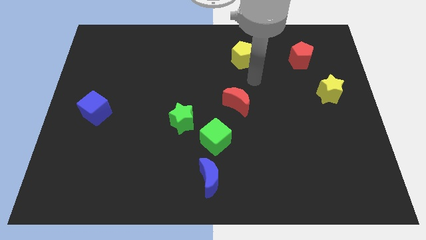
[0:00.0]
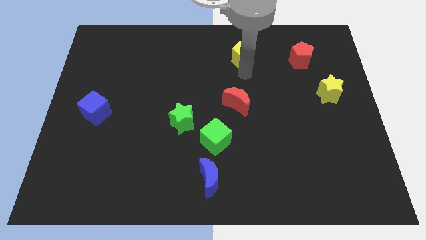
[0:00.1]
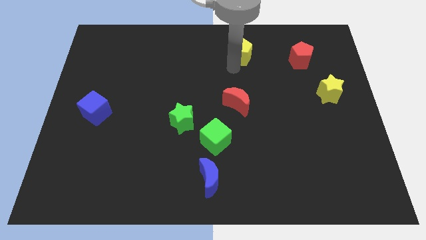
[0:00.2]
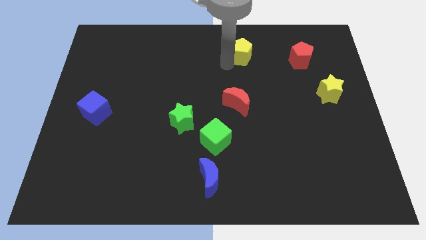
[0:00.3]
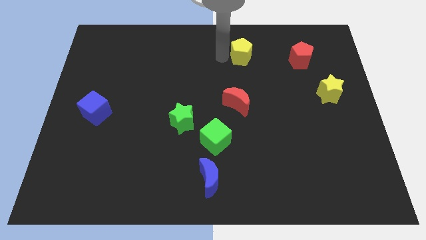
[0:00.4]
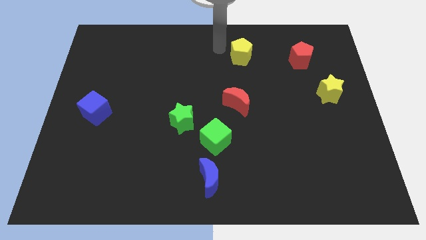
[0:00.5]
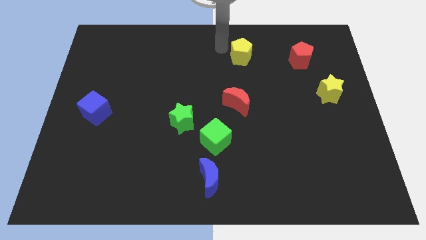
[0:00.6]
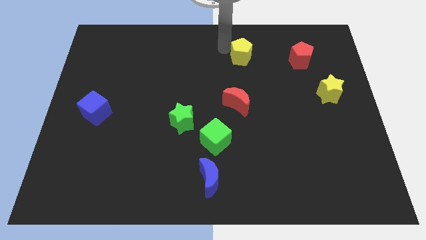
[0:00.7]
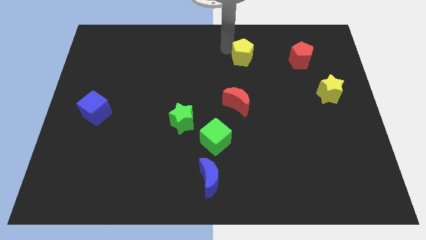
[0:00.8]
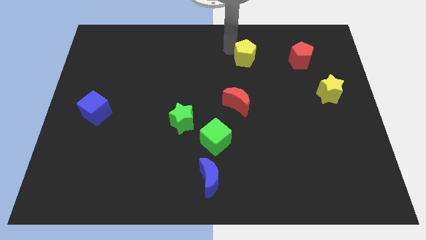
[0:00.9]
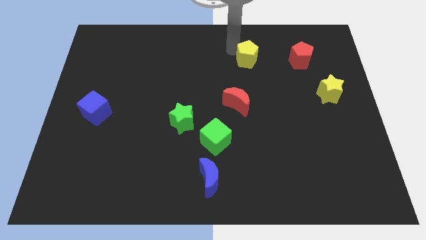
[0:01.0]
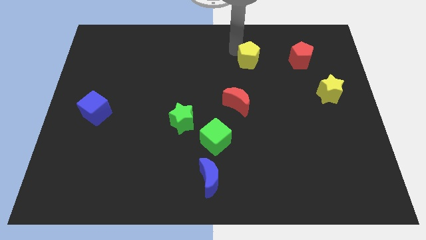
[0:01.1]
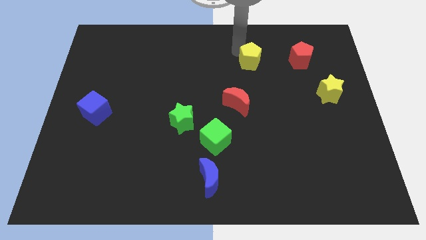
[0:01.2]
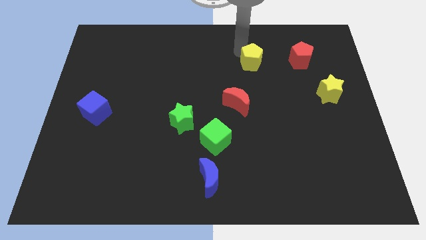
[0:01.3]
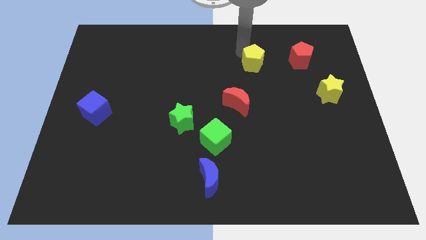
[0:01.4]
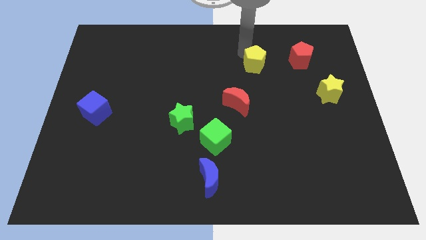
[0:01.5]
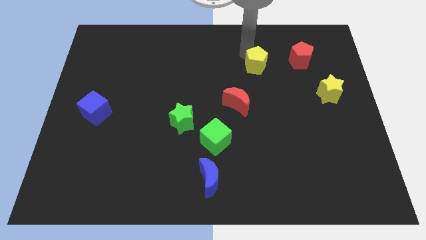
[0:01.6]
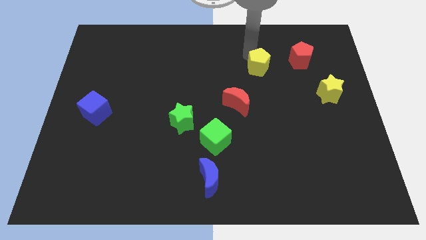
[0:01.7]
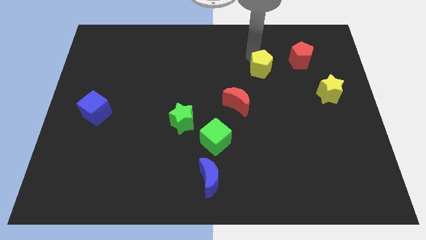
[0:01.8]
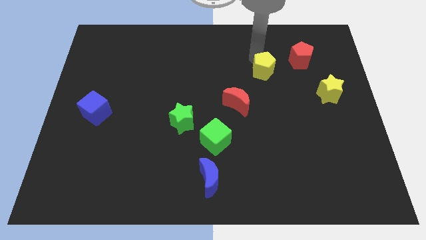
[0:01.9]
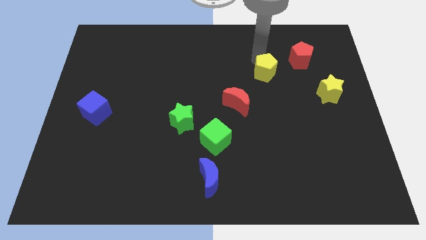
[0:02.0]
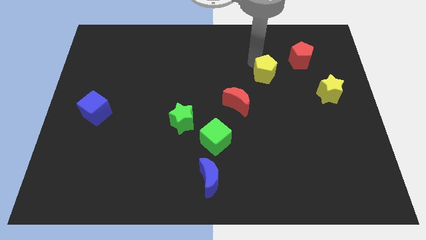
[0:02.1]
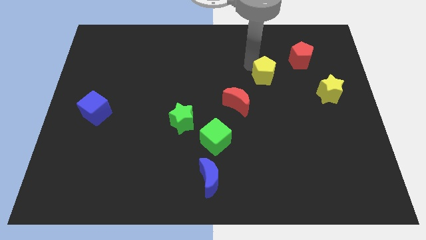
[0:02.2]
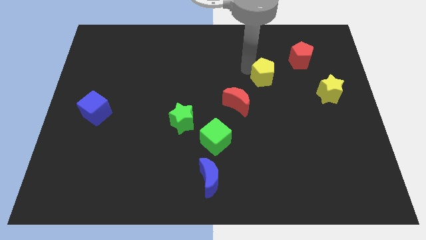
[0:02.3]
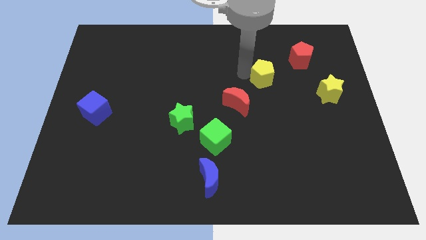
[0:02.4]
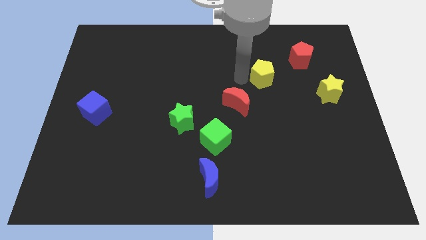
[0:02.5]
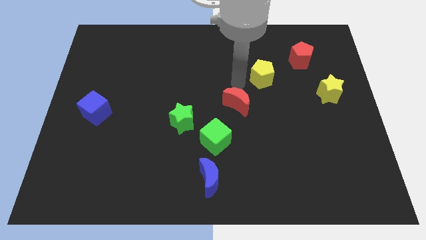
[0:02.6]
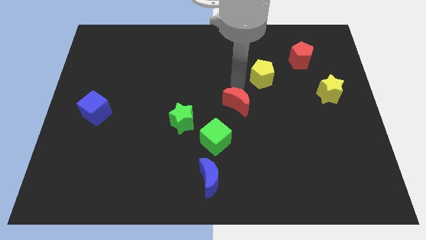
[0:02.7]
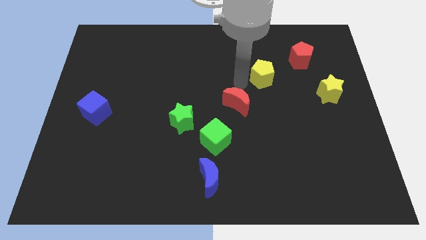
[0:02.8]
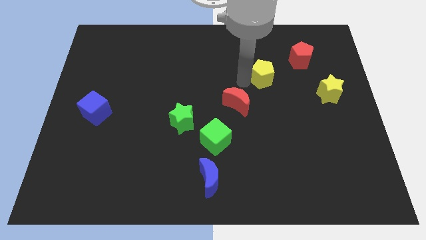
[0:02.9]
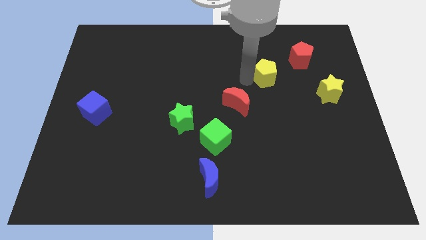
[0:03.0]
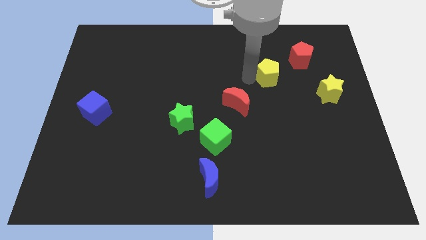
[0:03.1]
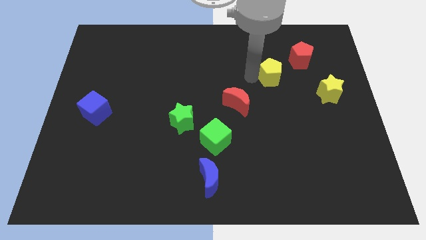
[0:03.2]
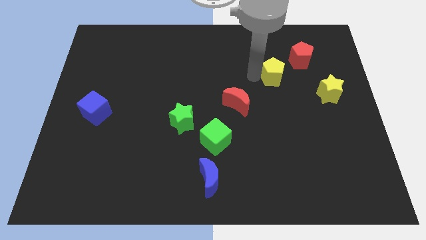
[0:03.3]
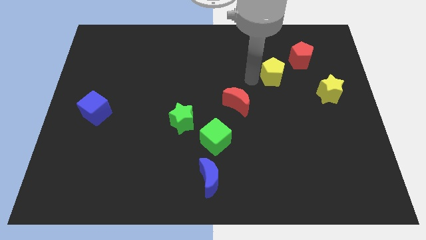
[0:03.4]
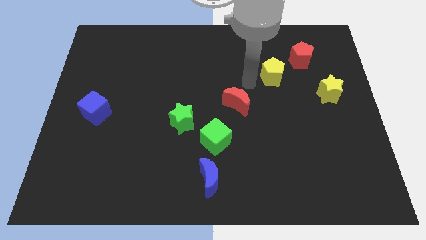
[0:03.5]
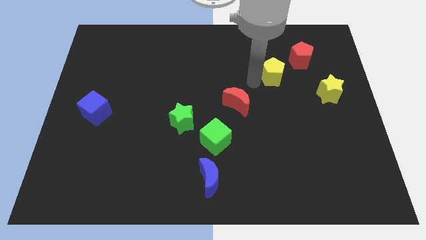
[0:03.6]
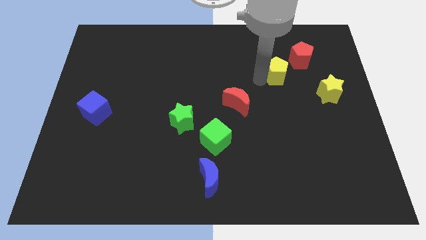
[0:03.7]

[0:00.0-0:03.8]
slightly slide the yellow pentagon right

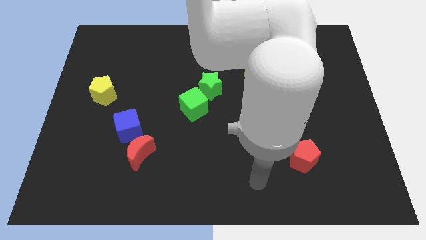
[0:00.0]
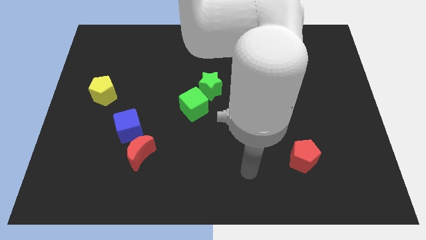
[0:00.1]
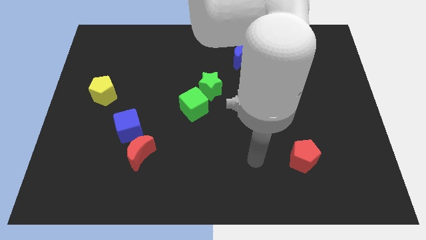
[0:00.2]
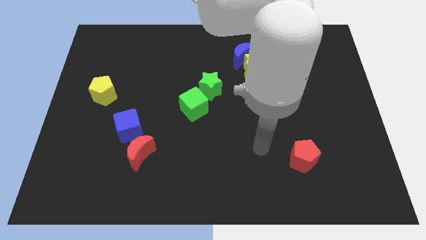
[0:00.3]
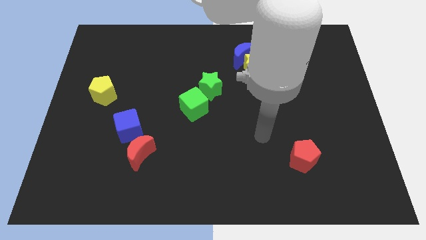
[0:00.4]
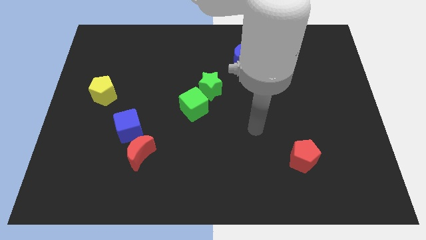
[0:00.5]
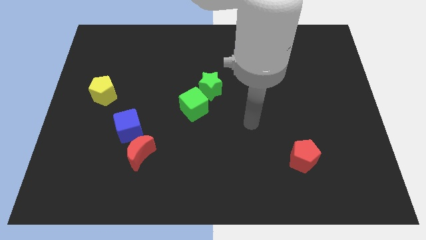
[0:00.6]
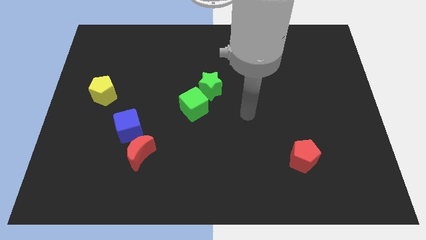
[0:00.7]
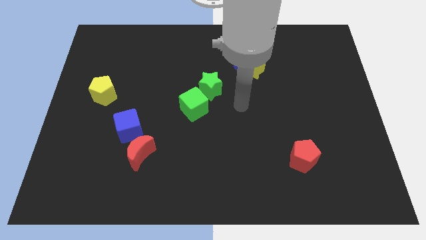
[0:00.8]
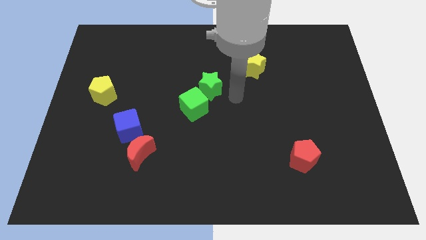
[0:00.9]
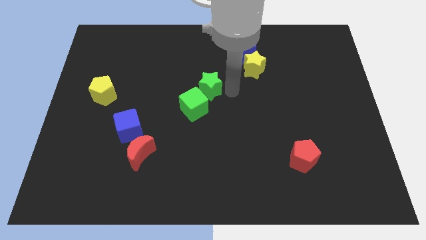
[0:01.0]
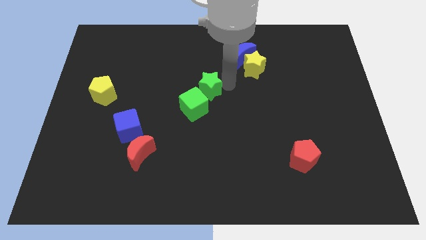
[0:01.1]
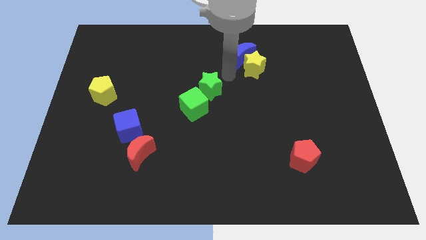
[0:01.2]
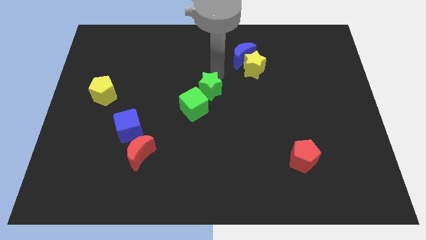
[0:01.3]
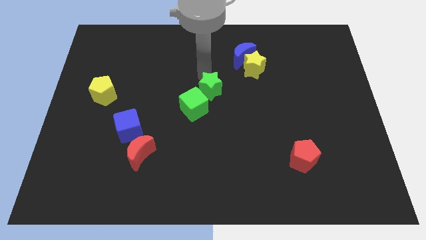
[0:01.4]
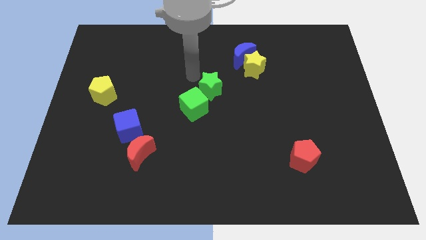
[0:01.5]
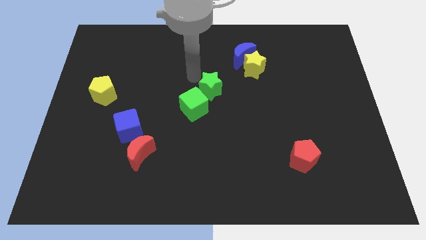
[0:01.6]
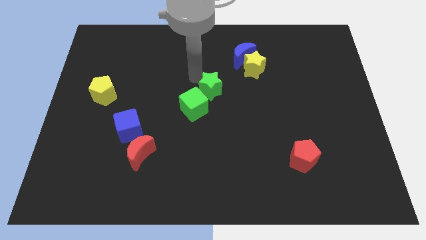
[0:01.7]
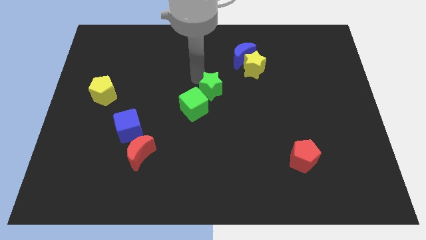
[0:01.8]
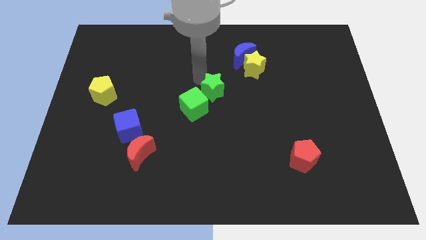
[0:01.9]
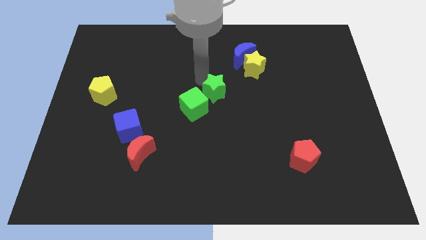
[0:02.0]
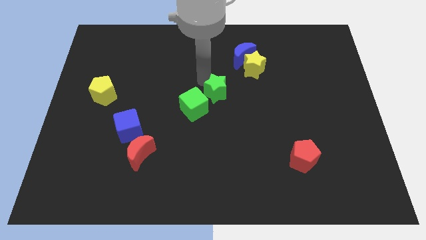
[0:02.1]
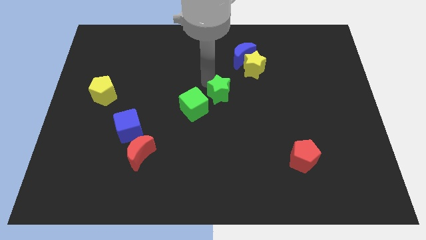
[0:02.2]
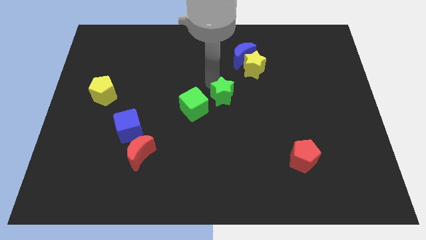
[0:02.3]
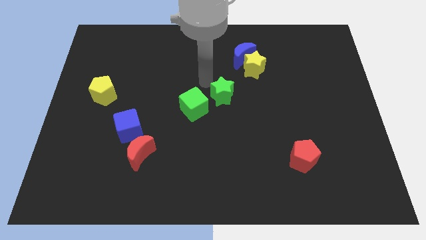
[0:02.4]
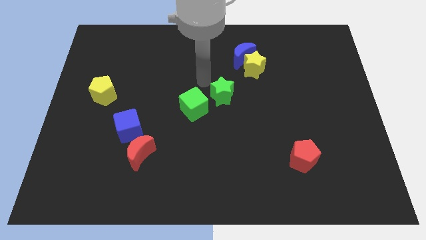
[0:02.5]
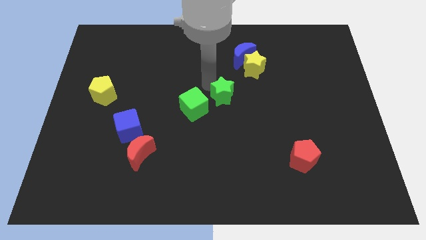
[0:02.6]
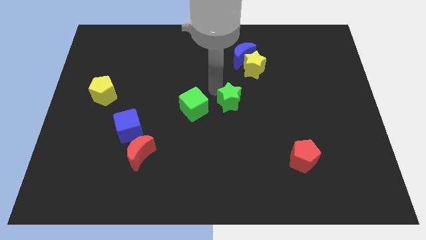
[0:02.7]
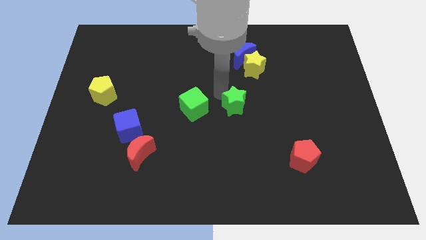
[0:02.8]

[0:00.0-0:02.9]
slightly move the green star diagonally downwards and to the right

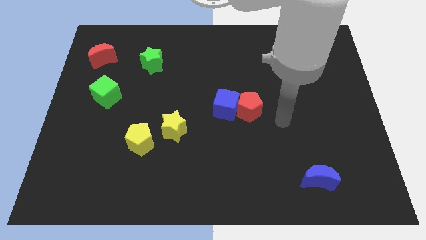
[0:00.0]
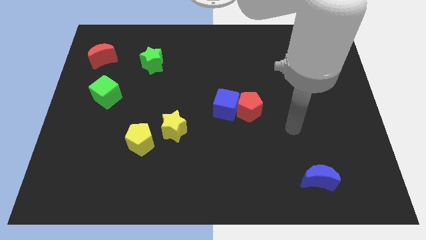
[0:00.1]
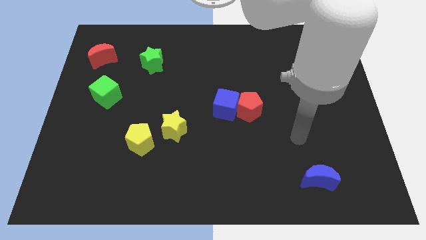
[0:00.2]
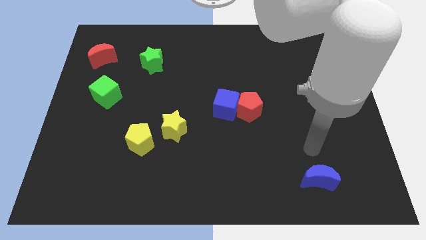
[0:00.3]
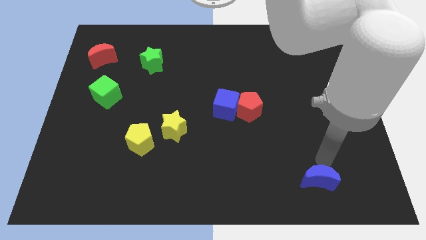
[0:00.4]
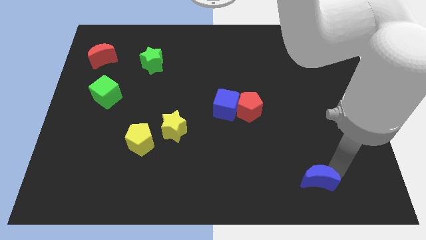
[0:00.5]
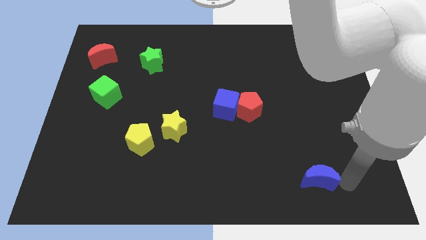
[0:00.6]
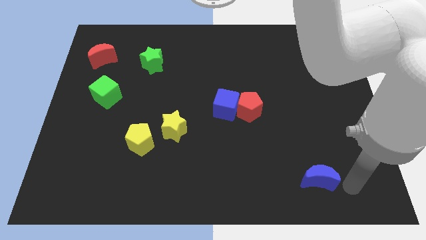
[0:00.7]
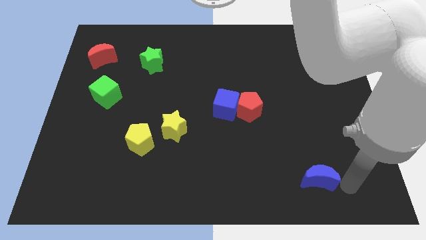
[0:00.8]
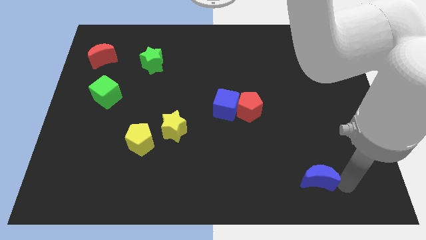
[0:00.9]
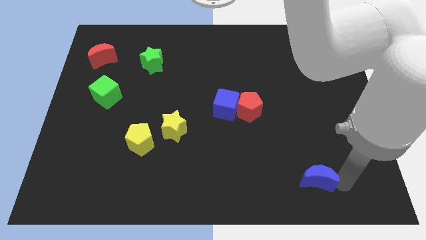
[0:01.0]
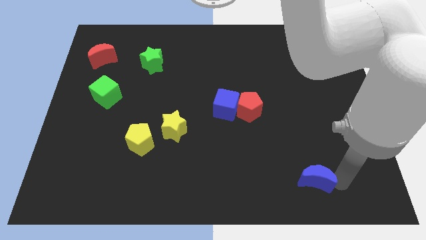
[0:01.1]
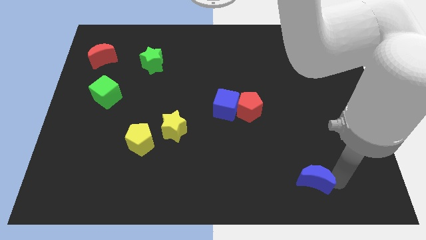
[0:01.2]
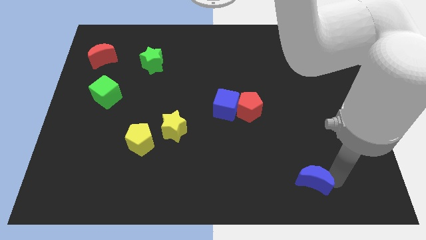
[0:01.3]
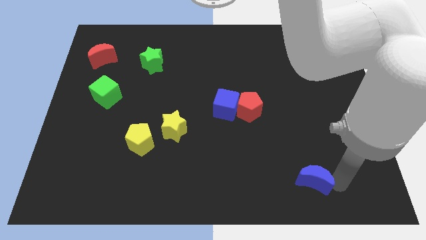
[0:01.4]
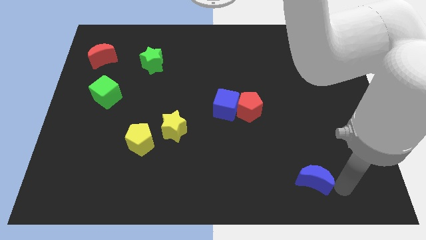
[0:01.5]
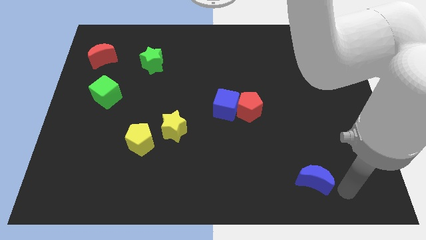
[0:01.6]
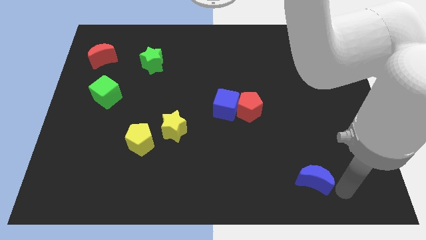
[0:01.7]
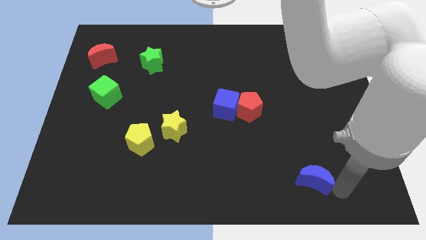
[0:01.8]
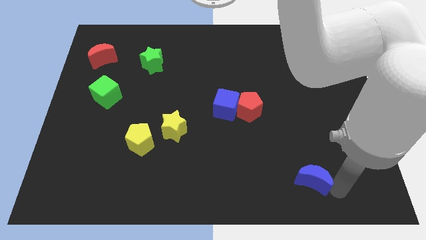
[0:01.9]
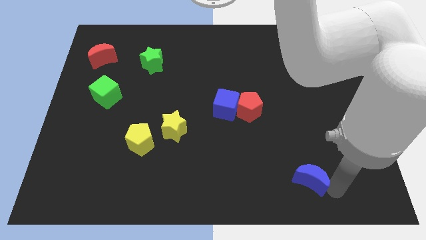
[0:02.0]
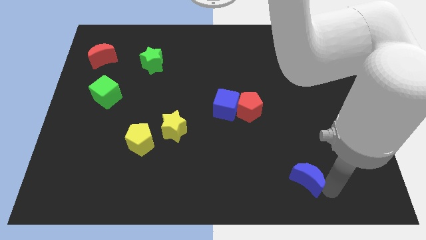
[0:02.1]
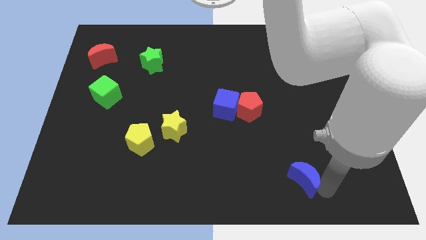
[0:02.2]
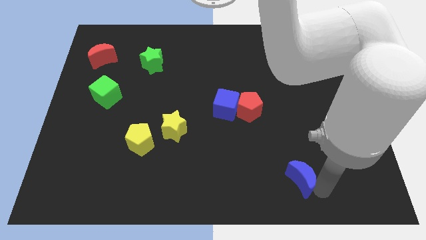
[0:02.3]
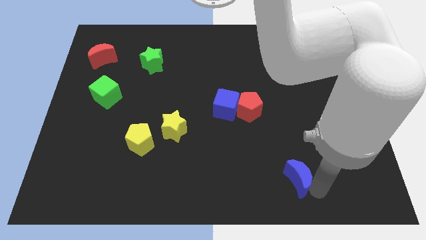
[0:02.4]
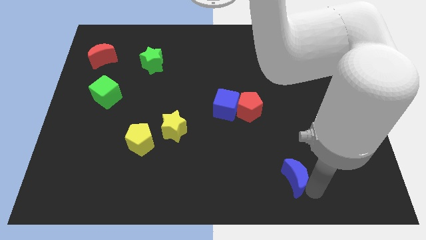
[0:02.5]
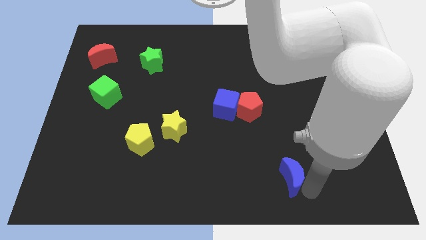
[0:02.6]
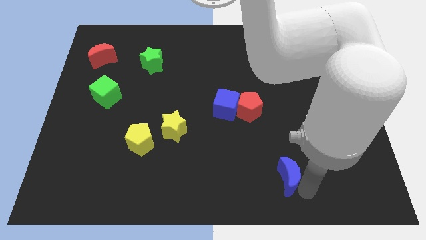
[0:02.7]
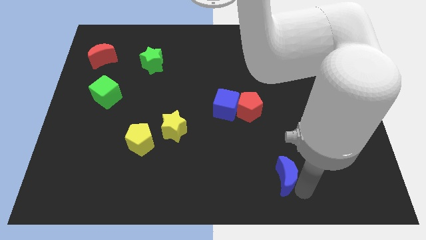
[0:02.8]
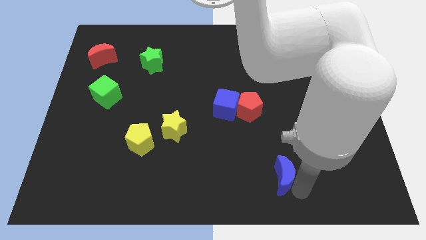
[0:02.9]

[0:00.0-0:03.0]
push the blue moon slightly to the left
